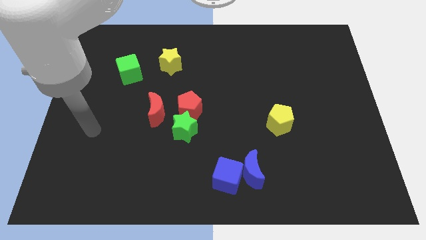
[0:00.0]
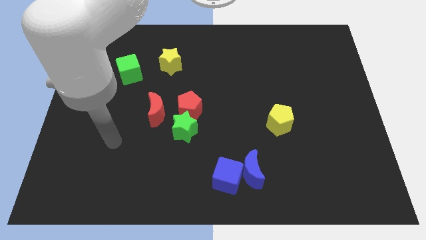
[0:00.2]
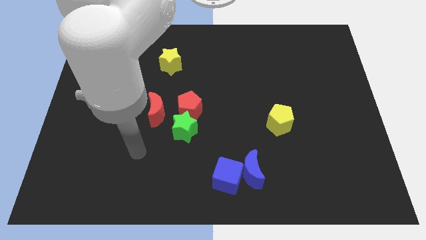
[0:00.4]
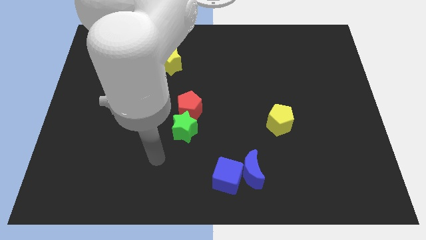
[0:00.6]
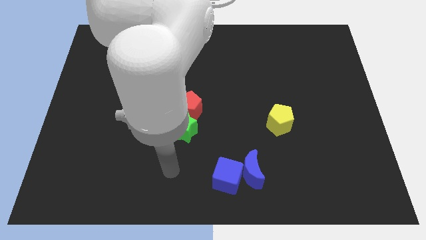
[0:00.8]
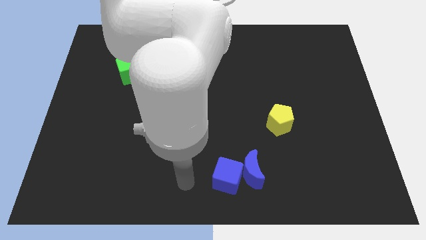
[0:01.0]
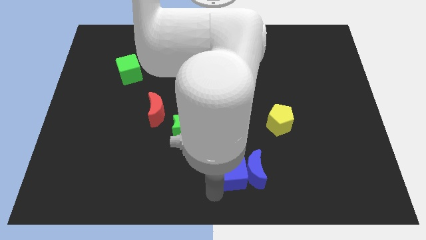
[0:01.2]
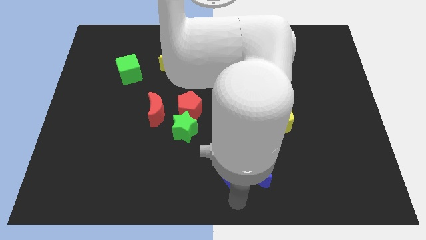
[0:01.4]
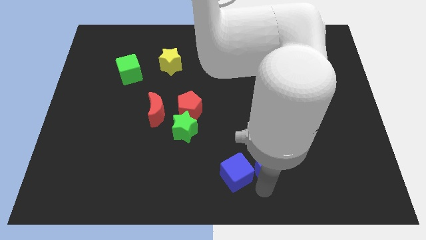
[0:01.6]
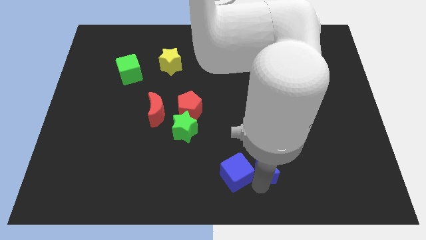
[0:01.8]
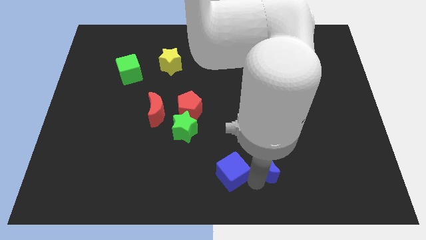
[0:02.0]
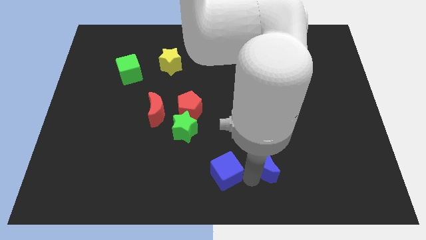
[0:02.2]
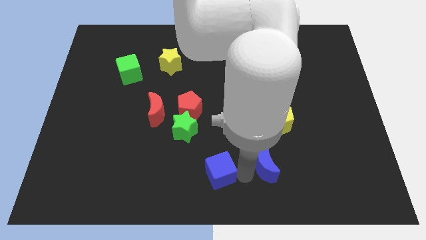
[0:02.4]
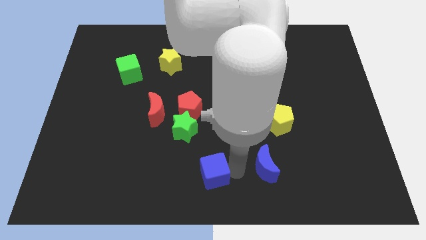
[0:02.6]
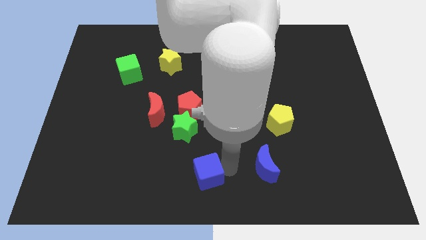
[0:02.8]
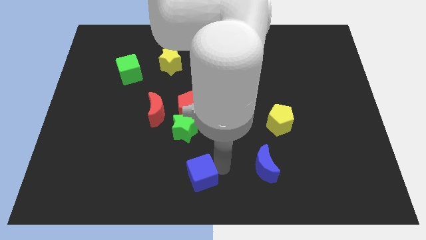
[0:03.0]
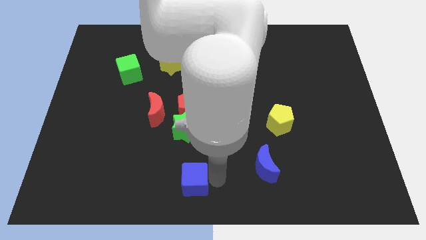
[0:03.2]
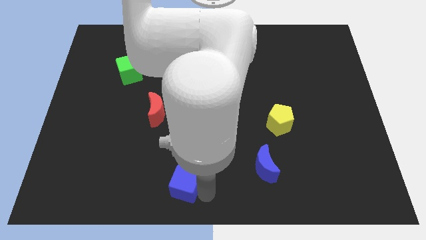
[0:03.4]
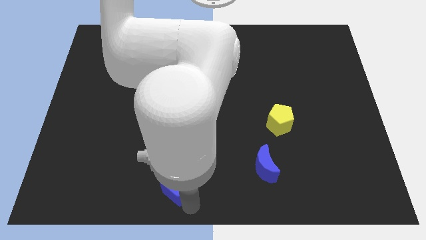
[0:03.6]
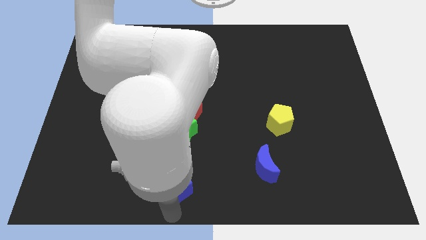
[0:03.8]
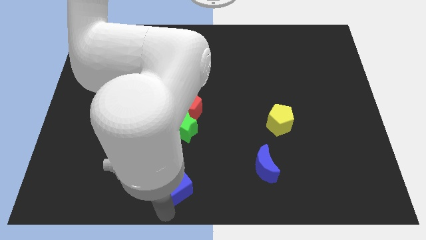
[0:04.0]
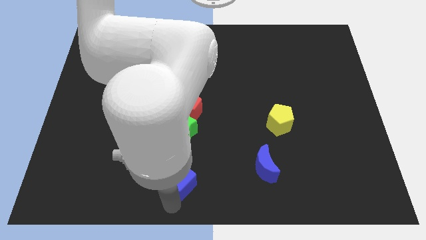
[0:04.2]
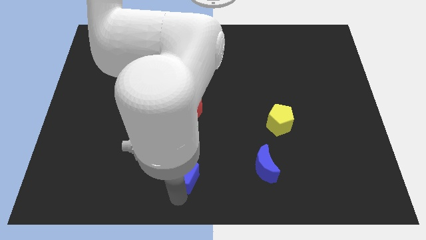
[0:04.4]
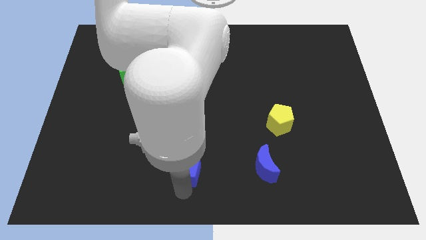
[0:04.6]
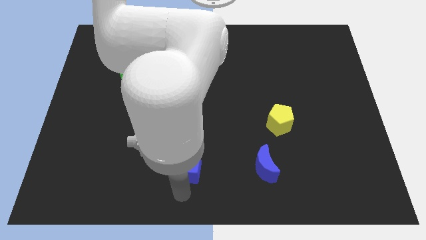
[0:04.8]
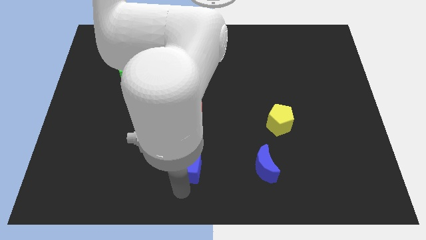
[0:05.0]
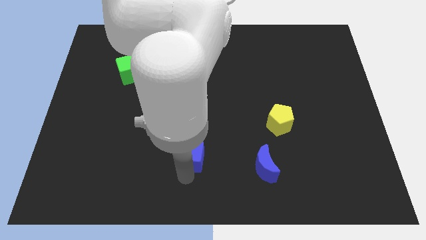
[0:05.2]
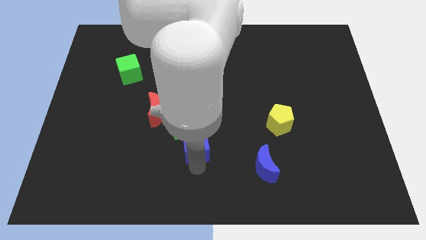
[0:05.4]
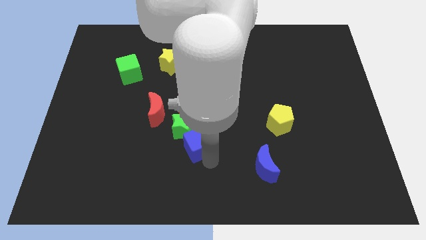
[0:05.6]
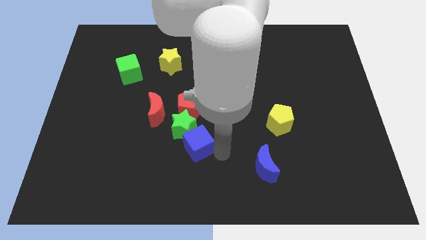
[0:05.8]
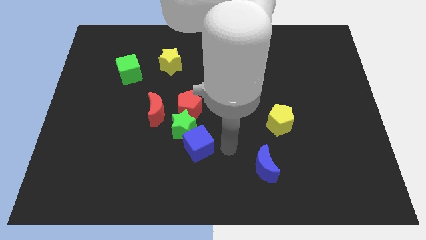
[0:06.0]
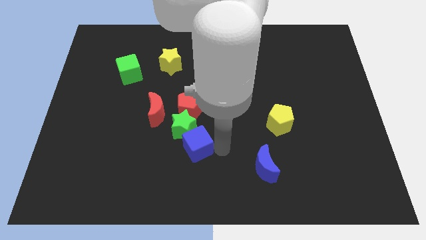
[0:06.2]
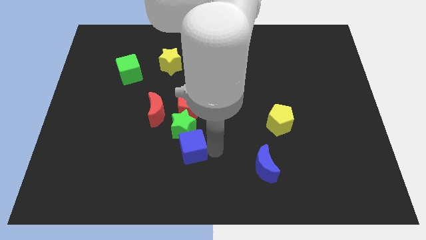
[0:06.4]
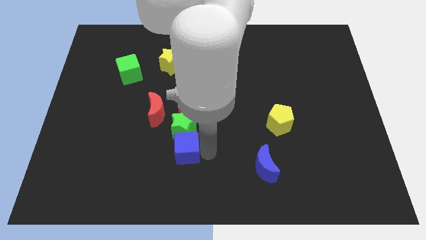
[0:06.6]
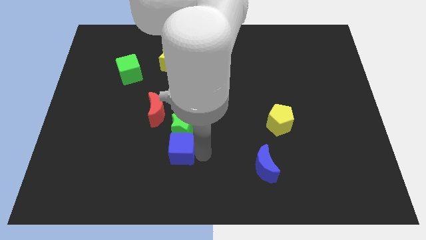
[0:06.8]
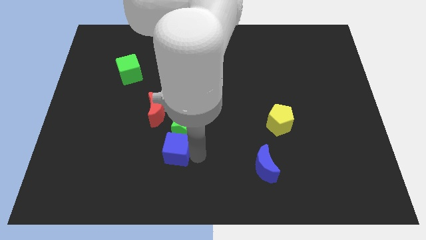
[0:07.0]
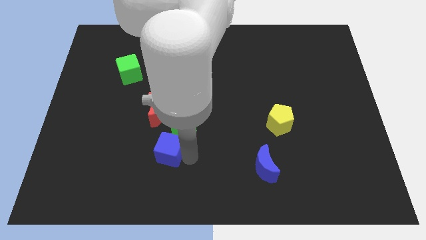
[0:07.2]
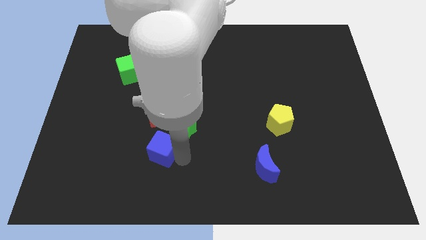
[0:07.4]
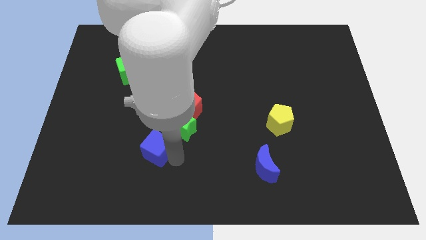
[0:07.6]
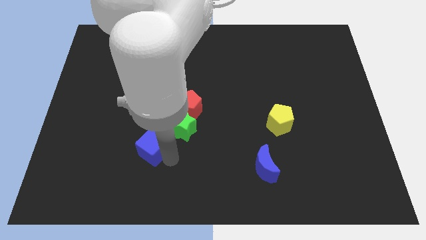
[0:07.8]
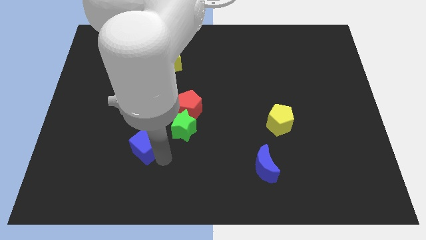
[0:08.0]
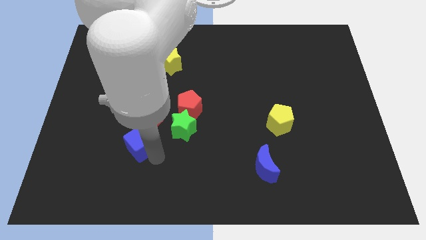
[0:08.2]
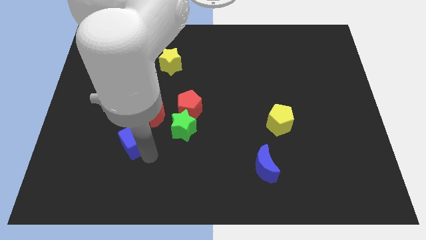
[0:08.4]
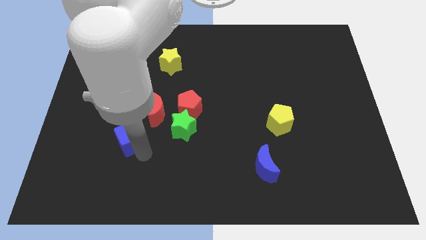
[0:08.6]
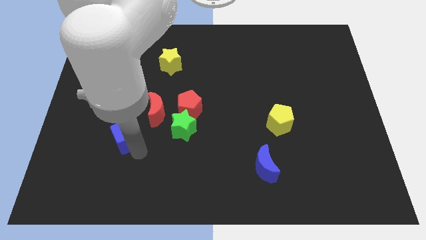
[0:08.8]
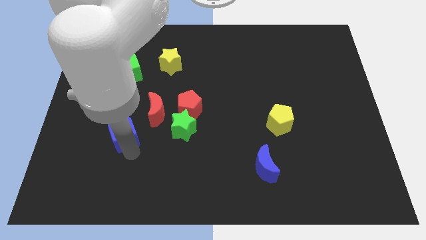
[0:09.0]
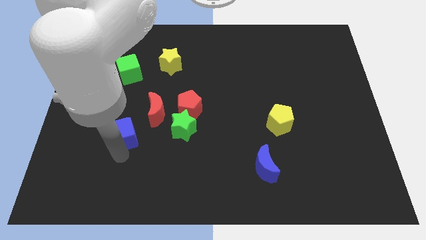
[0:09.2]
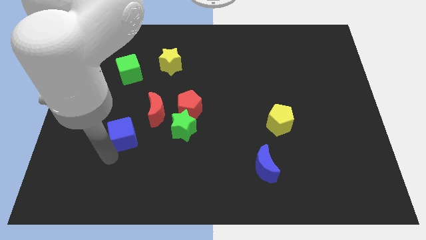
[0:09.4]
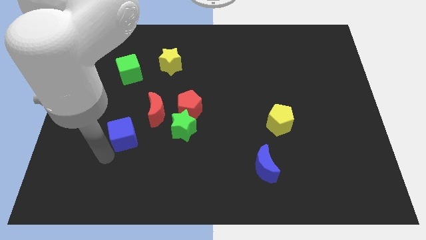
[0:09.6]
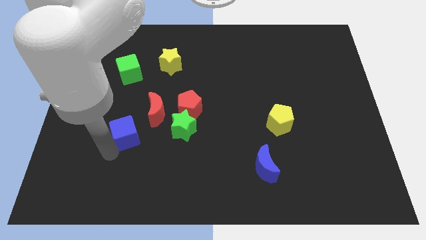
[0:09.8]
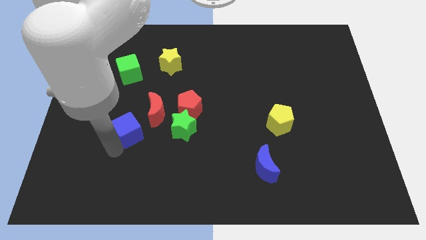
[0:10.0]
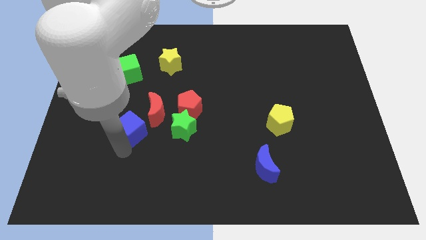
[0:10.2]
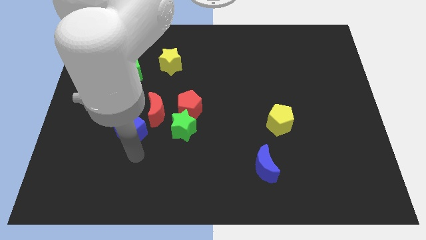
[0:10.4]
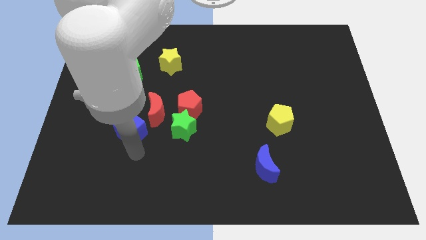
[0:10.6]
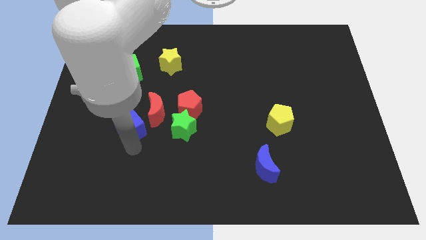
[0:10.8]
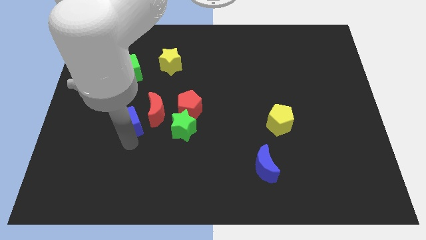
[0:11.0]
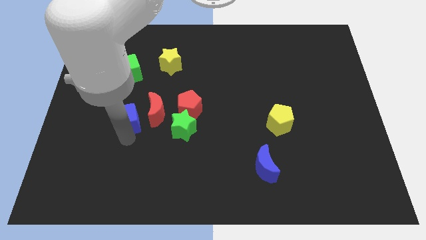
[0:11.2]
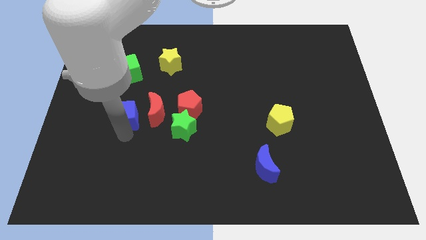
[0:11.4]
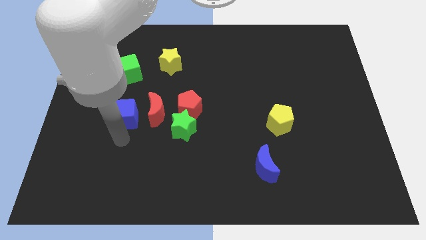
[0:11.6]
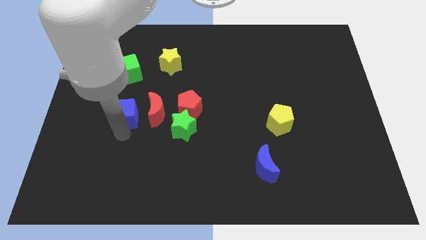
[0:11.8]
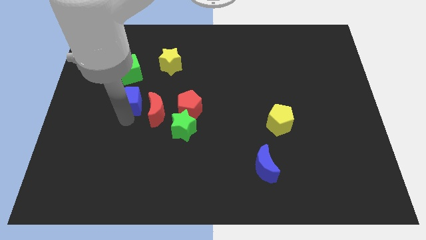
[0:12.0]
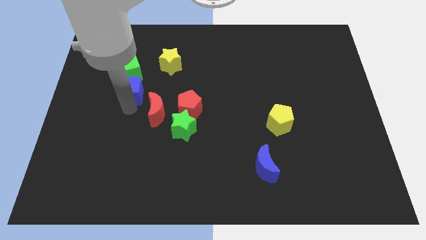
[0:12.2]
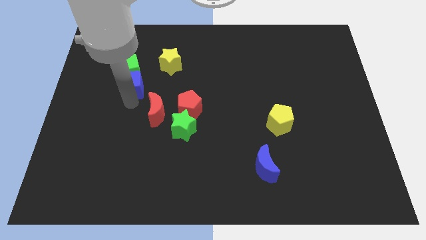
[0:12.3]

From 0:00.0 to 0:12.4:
slide the blue cube towards the green cube

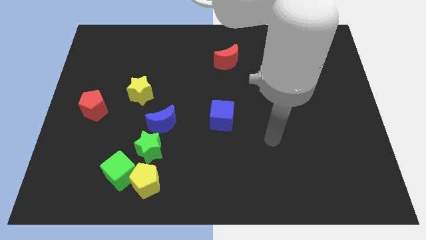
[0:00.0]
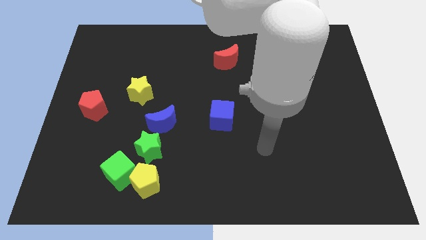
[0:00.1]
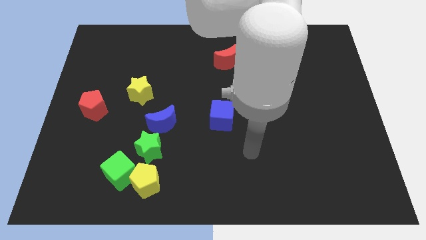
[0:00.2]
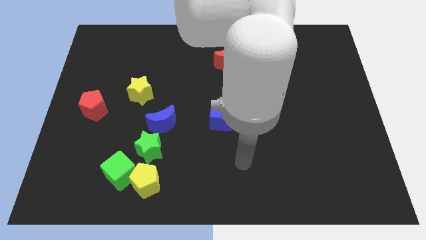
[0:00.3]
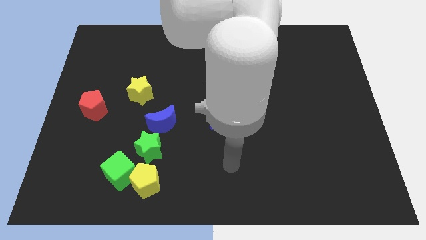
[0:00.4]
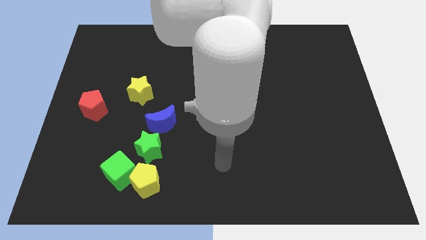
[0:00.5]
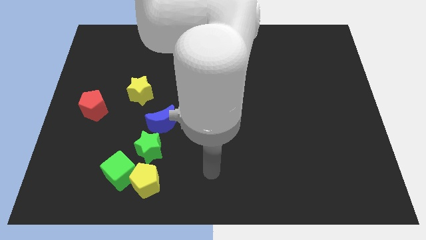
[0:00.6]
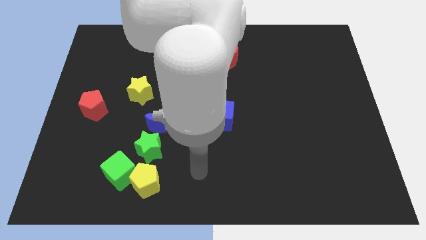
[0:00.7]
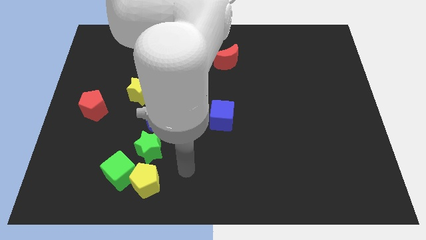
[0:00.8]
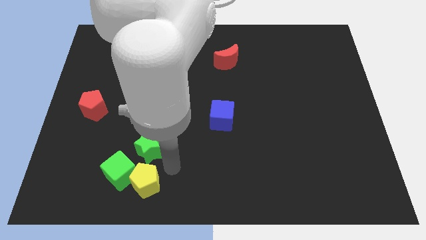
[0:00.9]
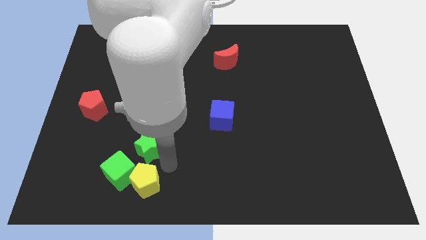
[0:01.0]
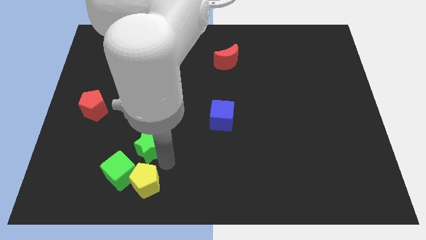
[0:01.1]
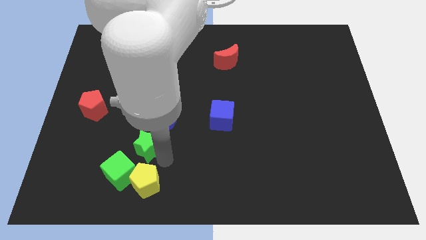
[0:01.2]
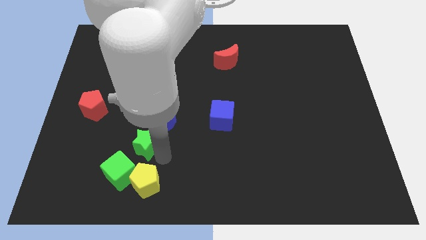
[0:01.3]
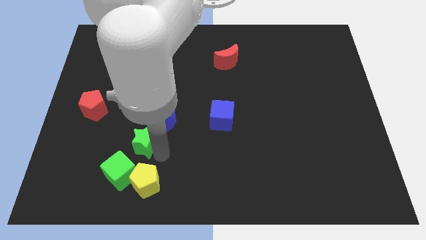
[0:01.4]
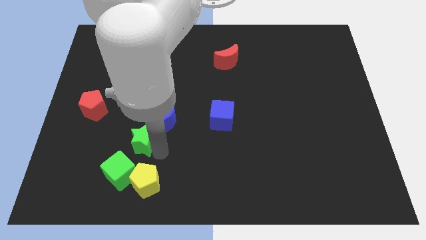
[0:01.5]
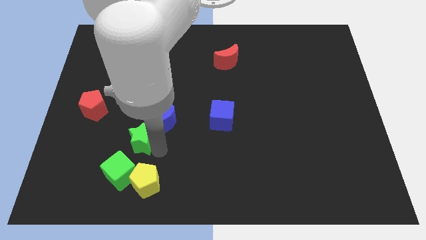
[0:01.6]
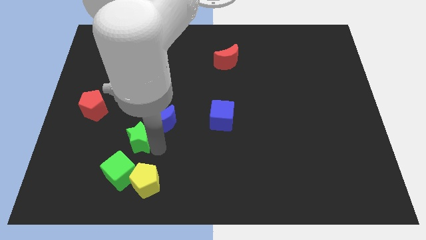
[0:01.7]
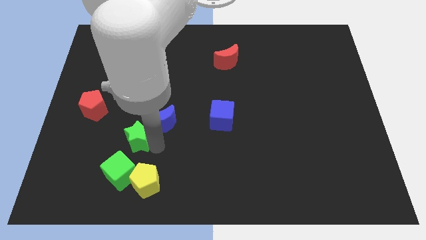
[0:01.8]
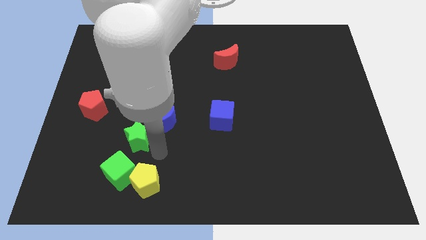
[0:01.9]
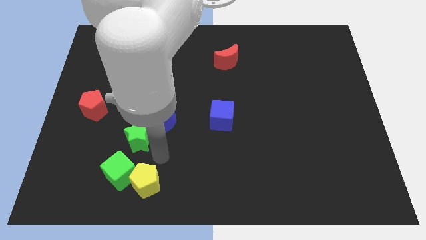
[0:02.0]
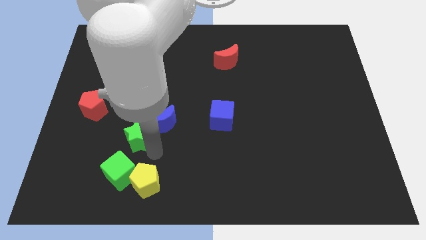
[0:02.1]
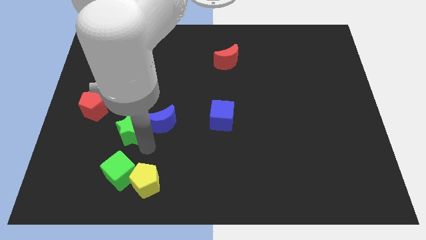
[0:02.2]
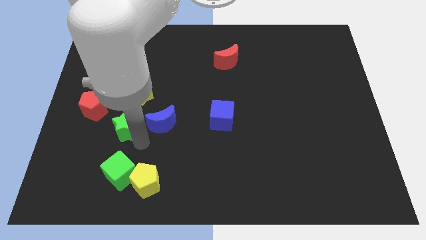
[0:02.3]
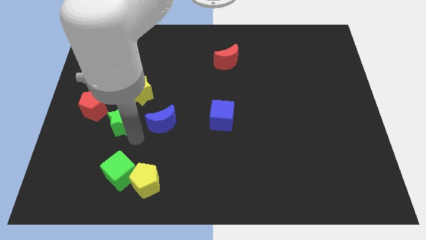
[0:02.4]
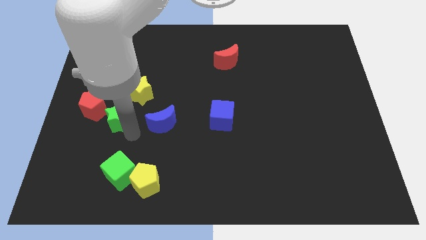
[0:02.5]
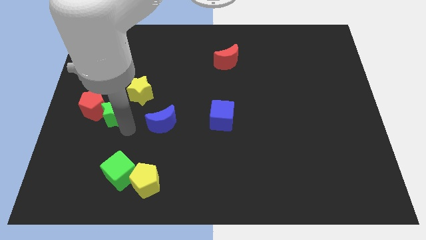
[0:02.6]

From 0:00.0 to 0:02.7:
slide the green star close to the red pentagon
